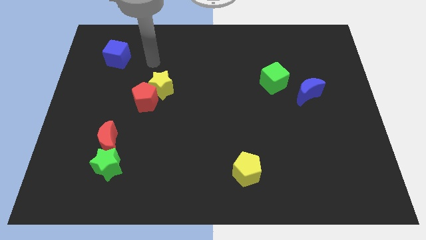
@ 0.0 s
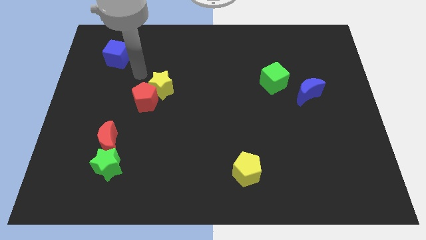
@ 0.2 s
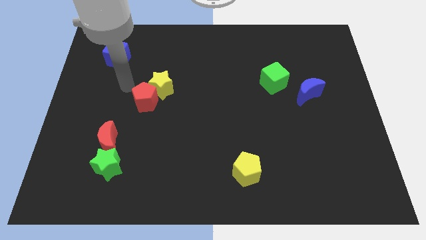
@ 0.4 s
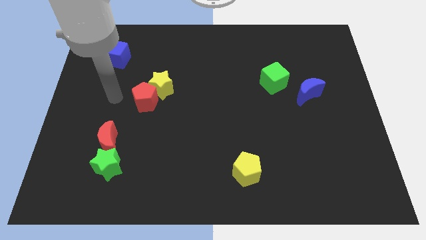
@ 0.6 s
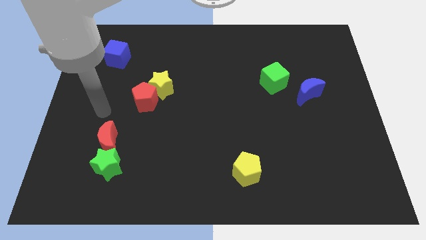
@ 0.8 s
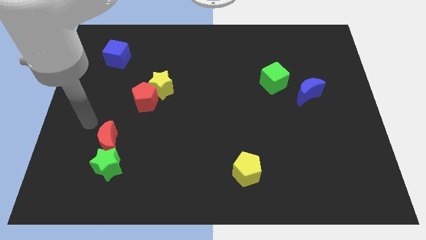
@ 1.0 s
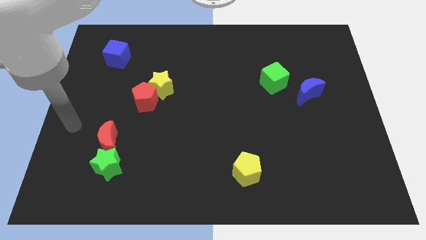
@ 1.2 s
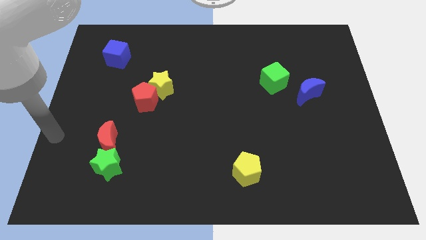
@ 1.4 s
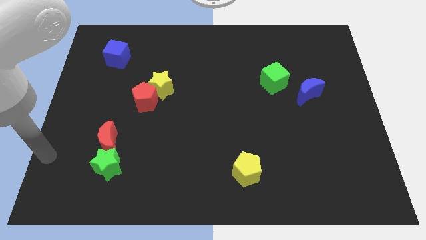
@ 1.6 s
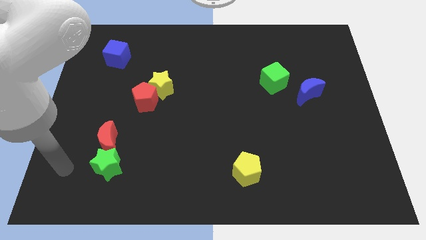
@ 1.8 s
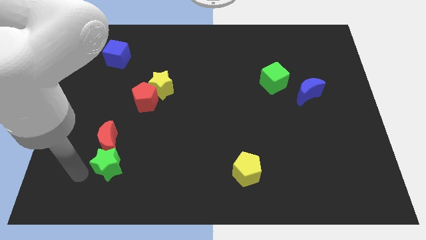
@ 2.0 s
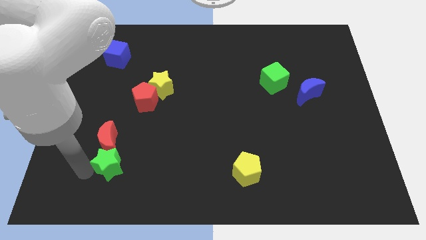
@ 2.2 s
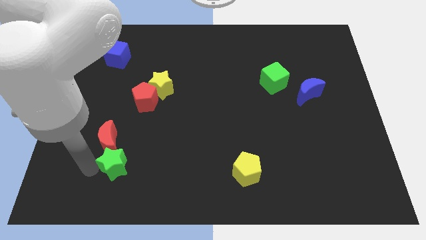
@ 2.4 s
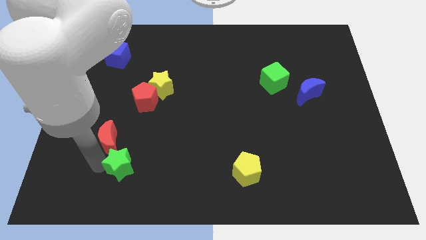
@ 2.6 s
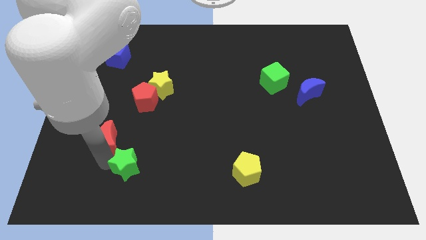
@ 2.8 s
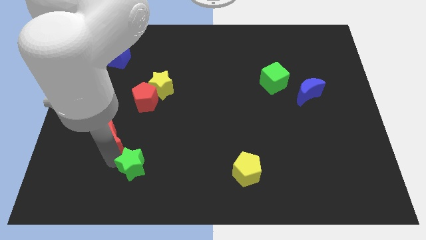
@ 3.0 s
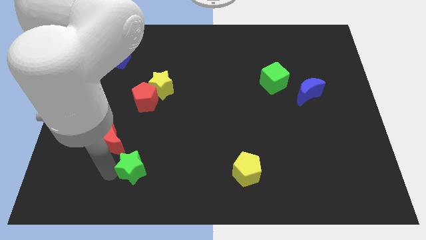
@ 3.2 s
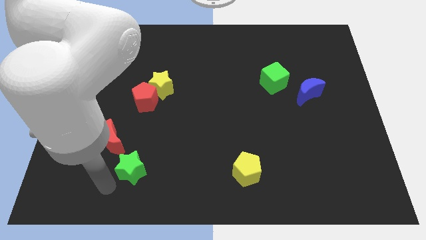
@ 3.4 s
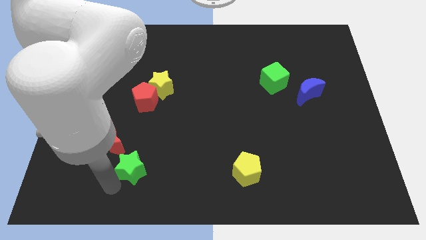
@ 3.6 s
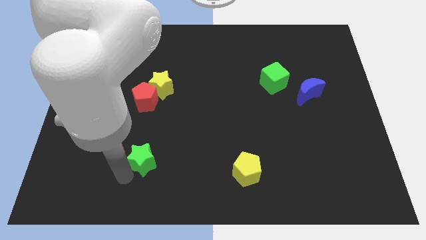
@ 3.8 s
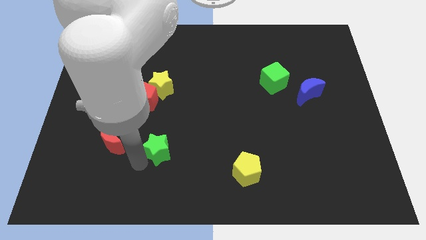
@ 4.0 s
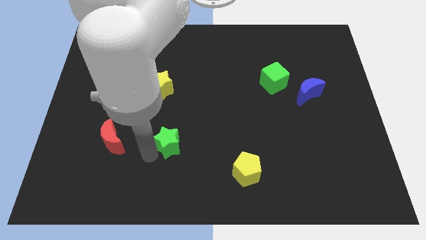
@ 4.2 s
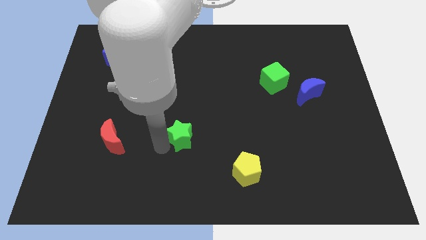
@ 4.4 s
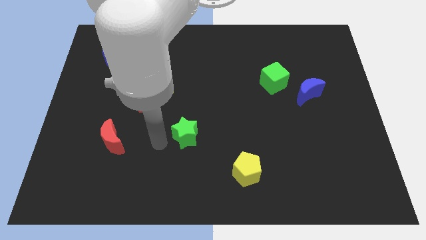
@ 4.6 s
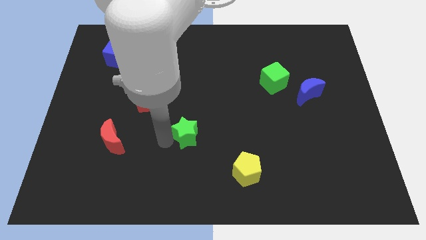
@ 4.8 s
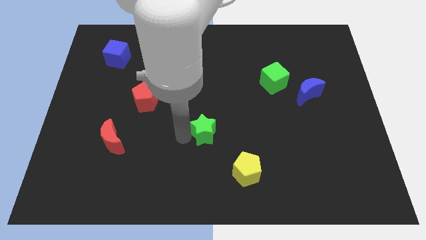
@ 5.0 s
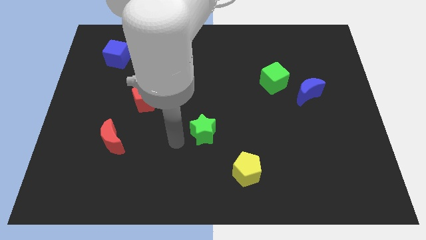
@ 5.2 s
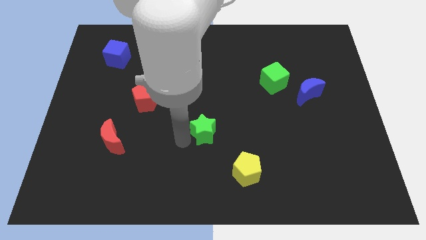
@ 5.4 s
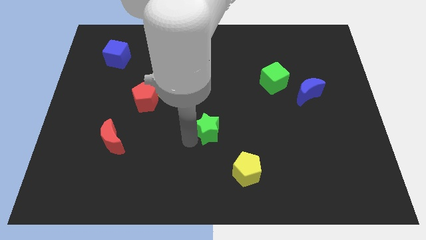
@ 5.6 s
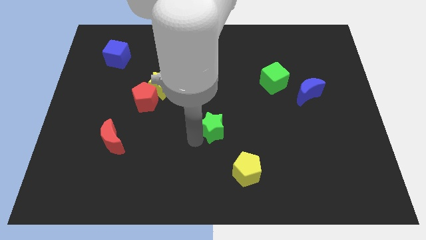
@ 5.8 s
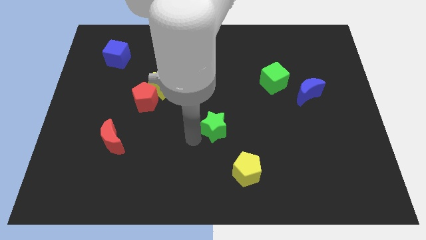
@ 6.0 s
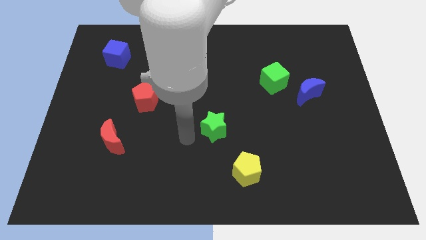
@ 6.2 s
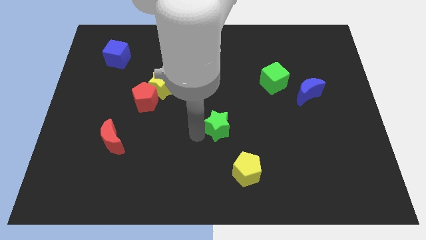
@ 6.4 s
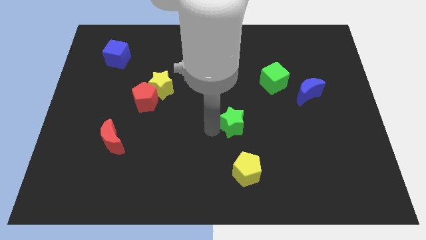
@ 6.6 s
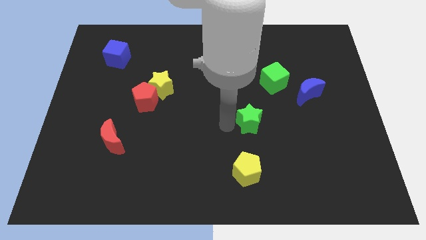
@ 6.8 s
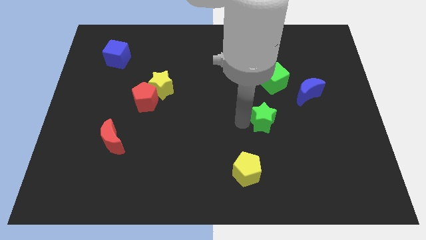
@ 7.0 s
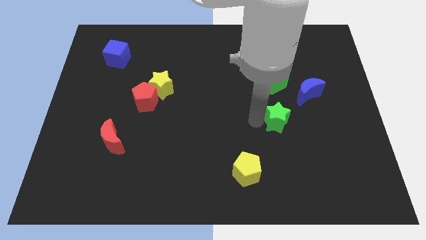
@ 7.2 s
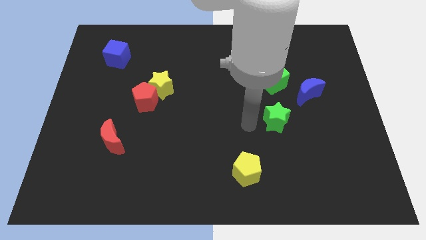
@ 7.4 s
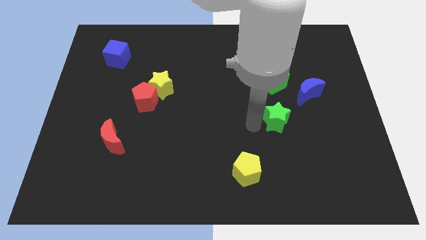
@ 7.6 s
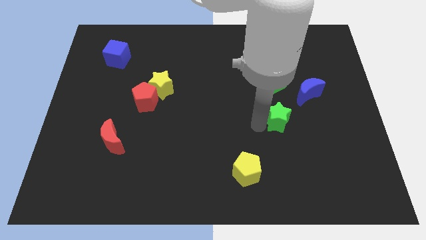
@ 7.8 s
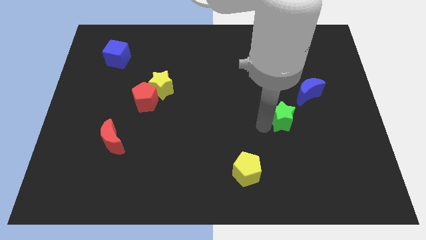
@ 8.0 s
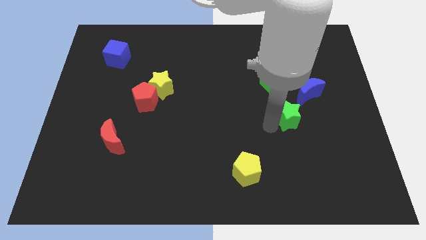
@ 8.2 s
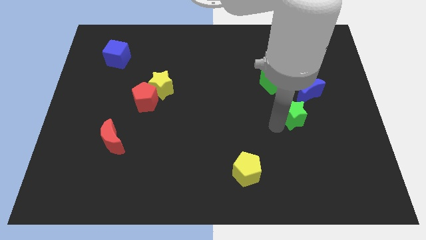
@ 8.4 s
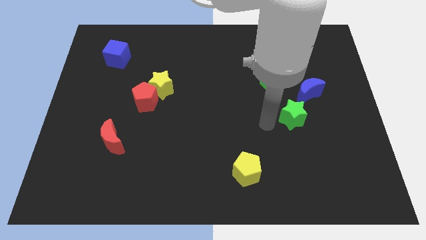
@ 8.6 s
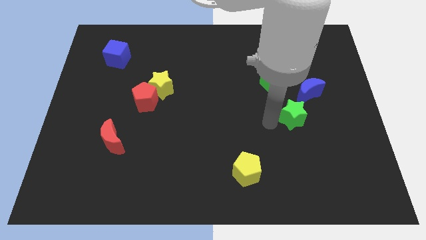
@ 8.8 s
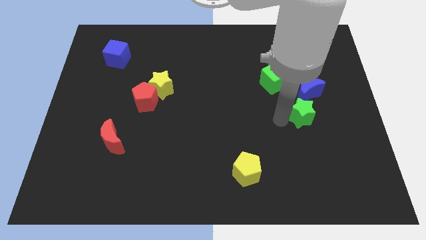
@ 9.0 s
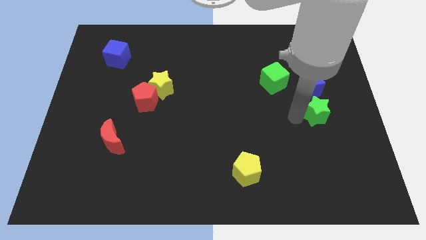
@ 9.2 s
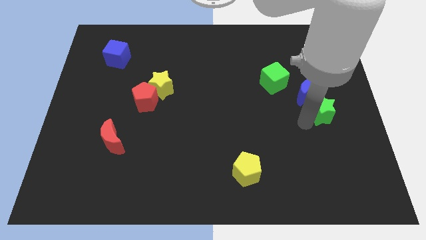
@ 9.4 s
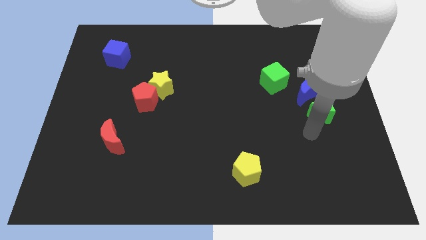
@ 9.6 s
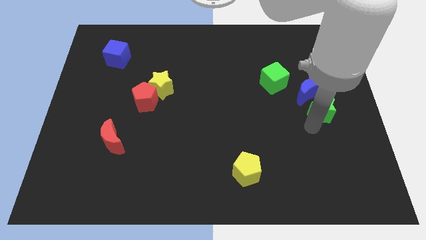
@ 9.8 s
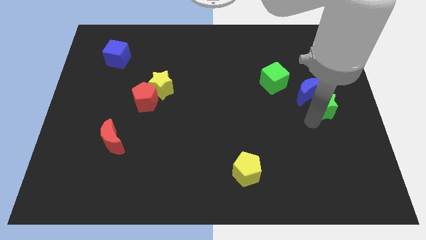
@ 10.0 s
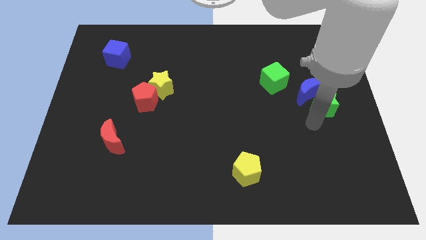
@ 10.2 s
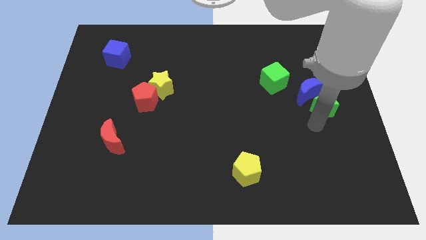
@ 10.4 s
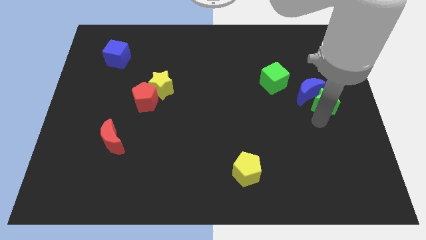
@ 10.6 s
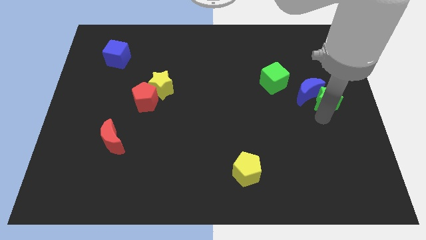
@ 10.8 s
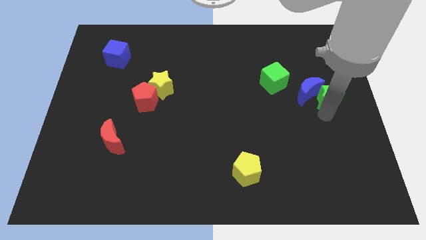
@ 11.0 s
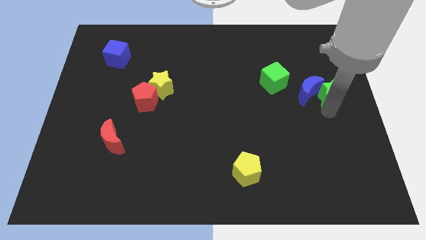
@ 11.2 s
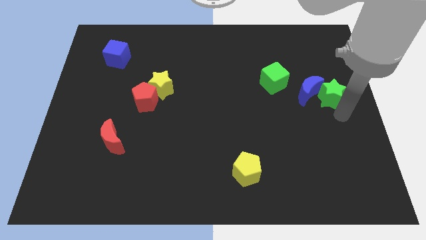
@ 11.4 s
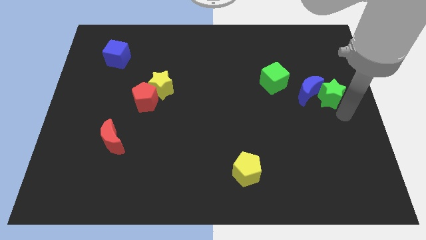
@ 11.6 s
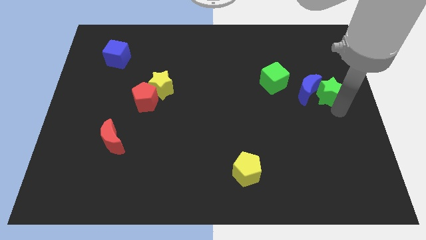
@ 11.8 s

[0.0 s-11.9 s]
slide the green star just right of the green cube

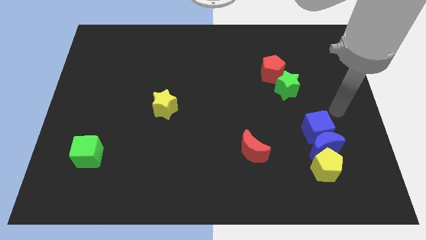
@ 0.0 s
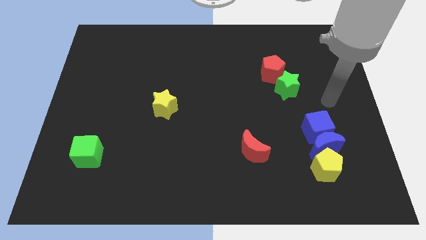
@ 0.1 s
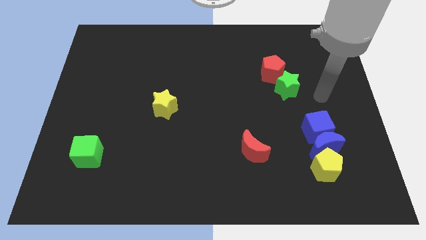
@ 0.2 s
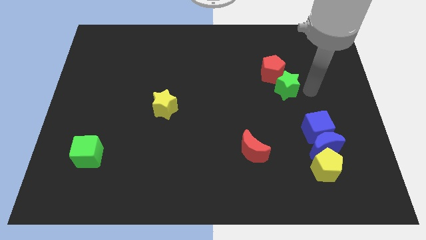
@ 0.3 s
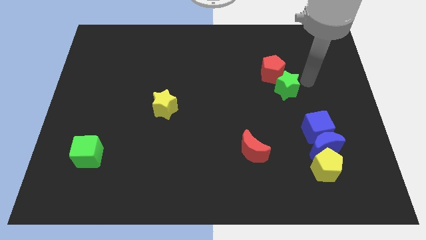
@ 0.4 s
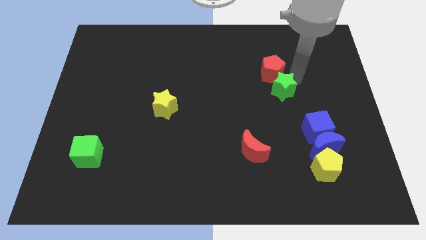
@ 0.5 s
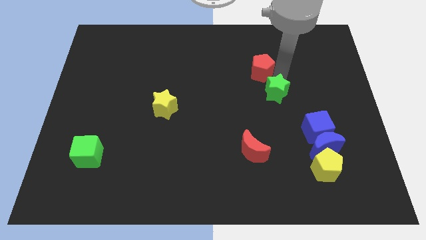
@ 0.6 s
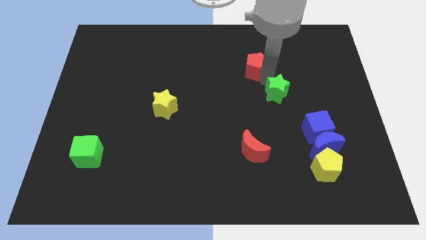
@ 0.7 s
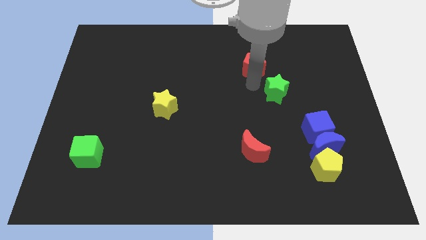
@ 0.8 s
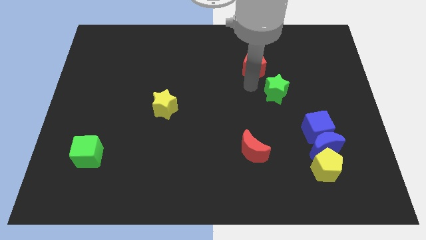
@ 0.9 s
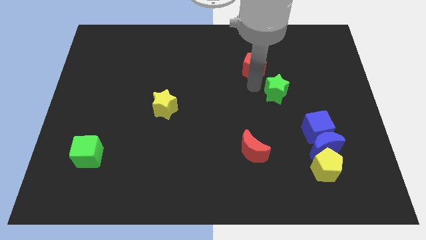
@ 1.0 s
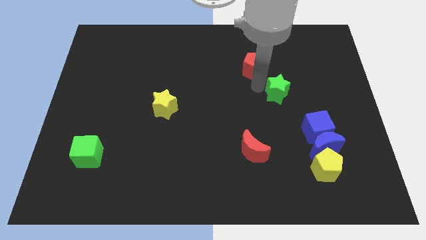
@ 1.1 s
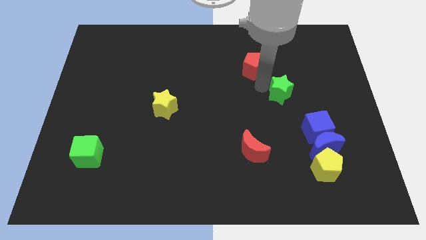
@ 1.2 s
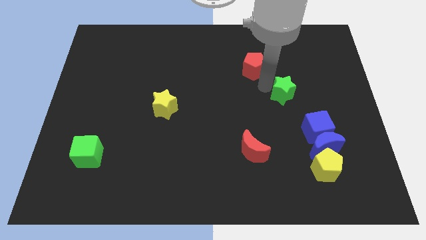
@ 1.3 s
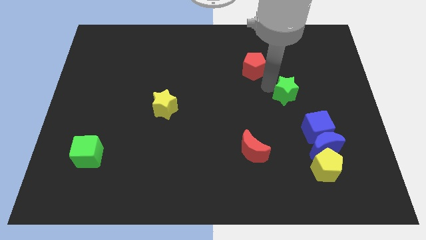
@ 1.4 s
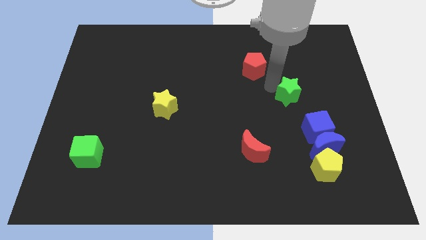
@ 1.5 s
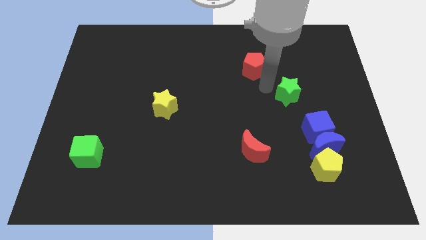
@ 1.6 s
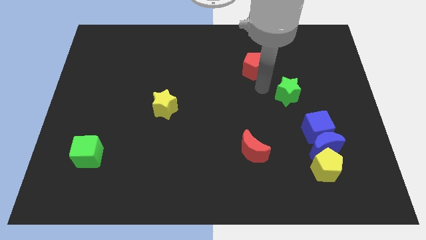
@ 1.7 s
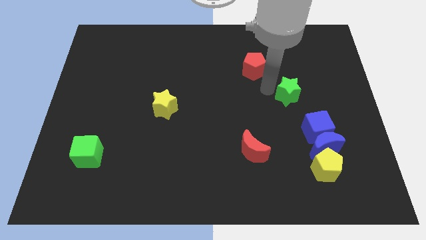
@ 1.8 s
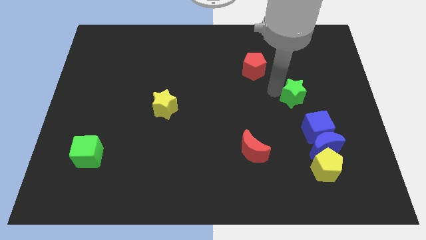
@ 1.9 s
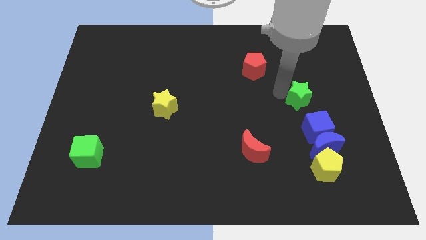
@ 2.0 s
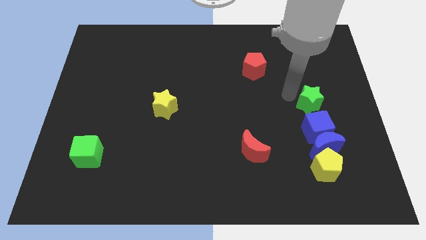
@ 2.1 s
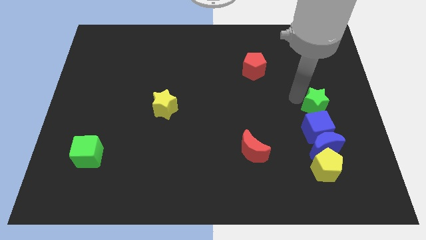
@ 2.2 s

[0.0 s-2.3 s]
push the green star diagonally up and to the right of the blue cube
